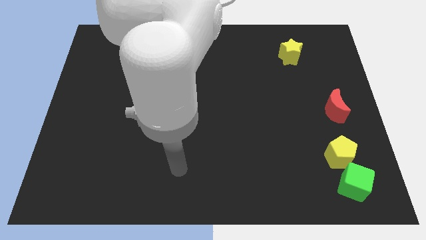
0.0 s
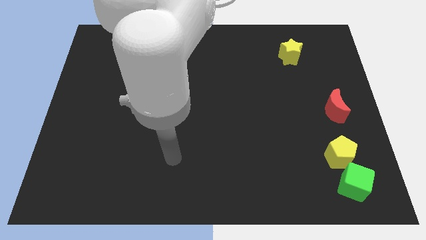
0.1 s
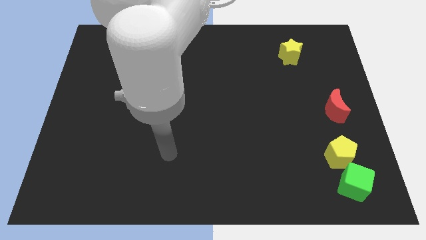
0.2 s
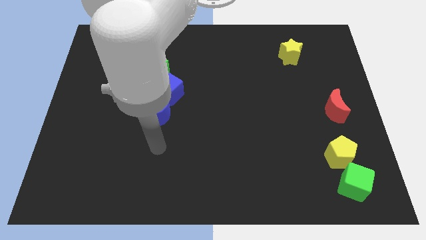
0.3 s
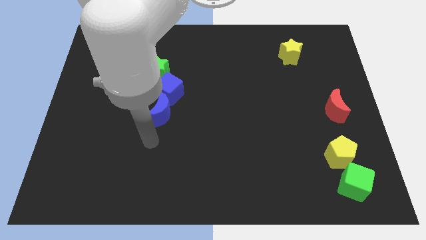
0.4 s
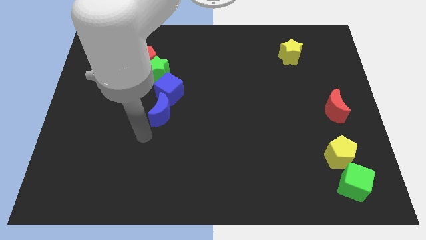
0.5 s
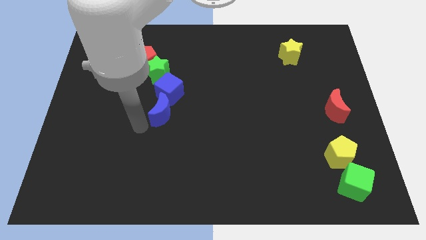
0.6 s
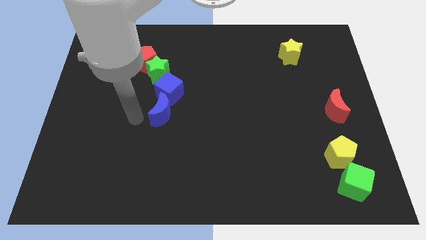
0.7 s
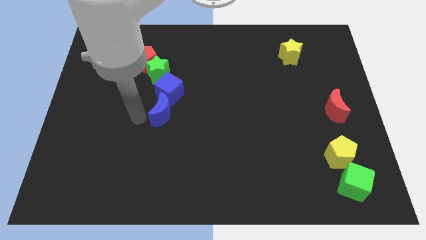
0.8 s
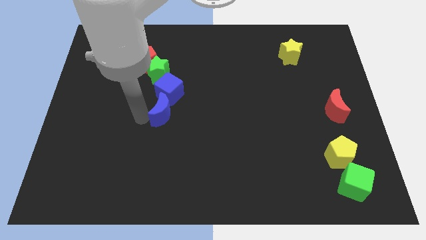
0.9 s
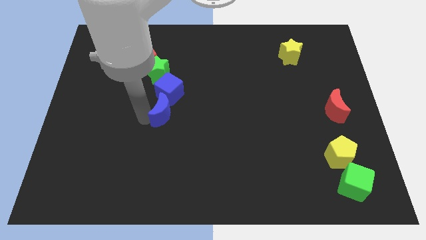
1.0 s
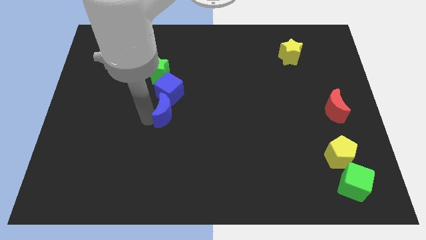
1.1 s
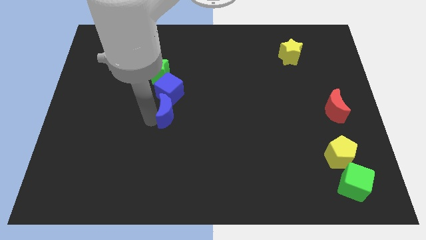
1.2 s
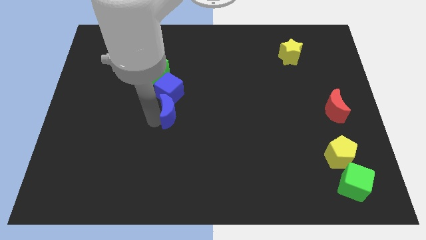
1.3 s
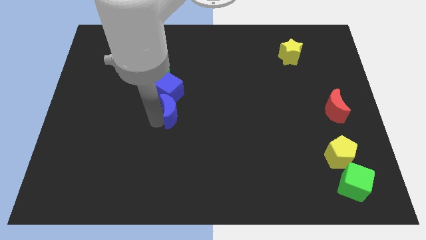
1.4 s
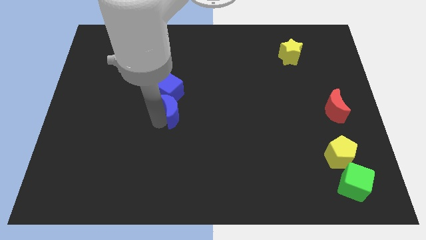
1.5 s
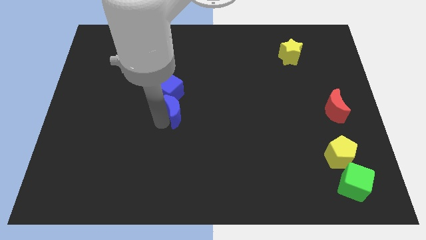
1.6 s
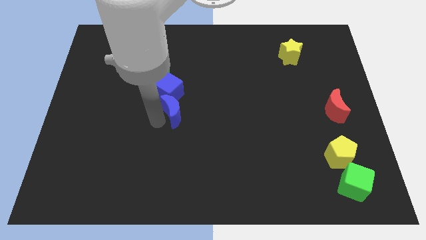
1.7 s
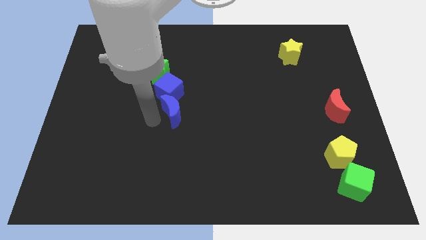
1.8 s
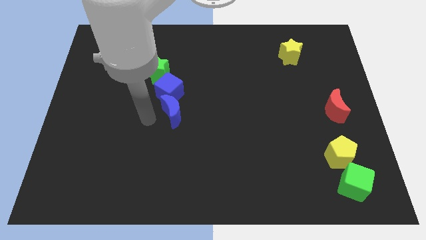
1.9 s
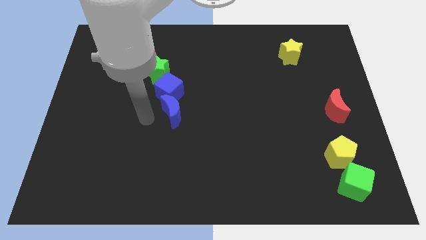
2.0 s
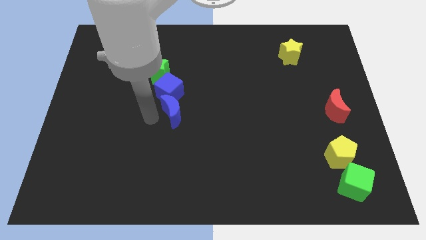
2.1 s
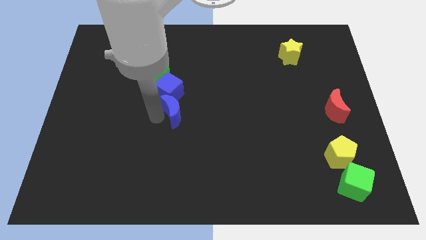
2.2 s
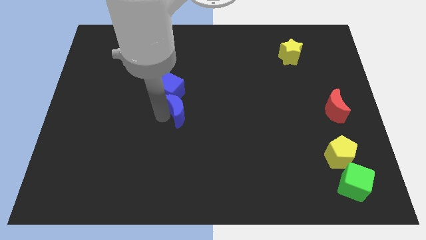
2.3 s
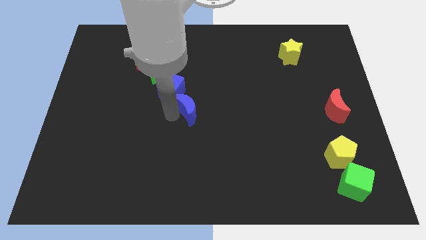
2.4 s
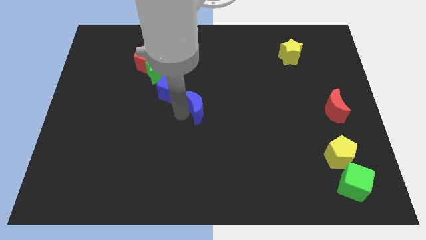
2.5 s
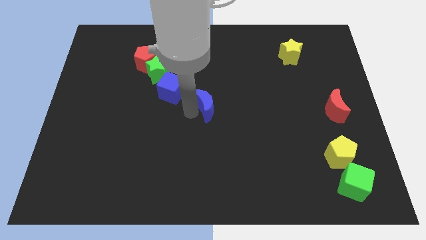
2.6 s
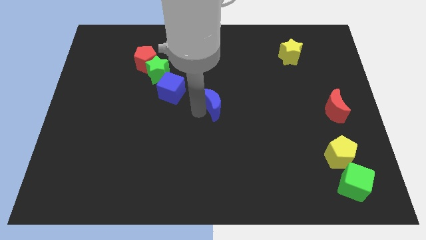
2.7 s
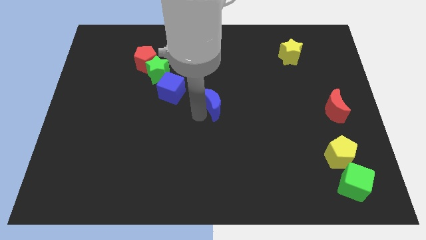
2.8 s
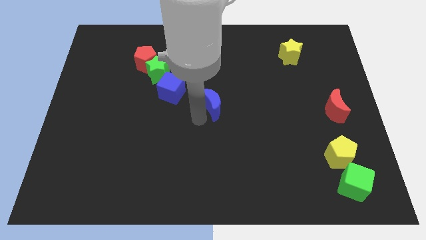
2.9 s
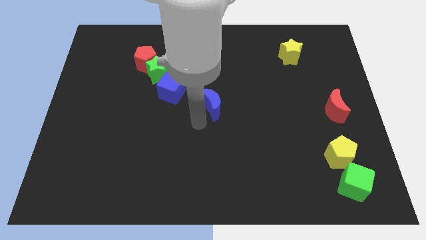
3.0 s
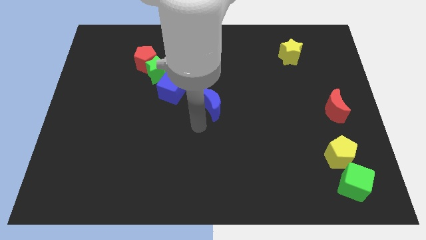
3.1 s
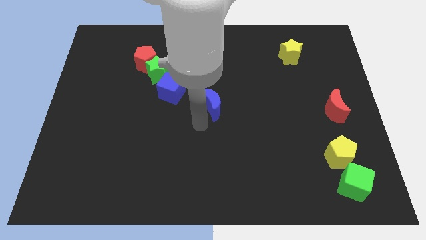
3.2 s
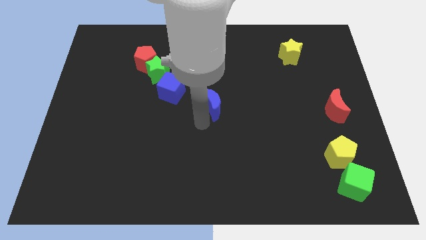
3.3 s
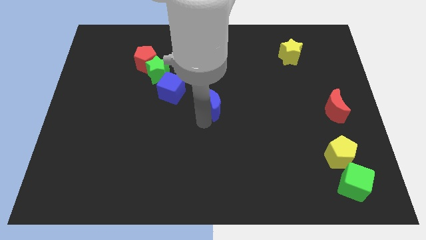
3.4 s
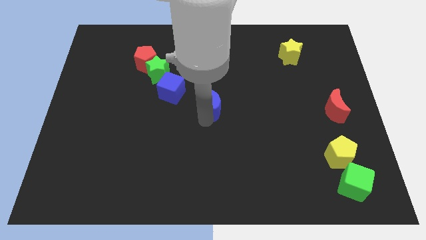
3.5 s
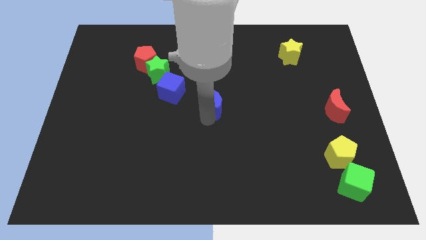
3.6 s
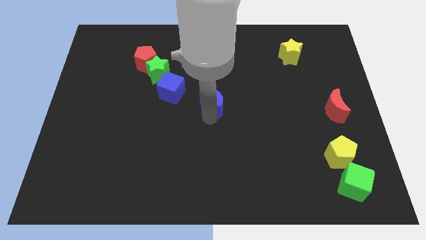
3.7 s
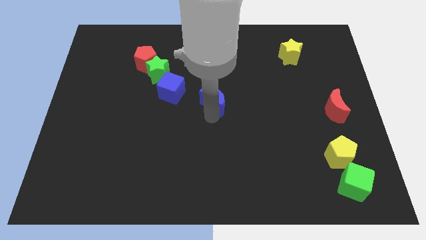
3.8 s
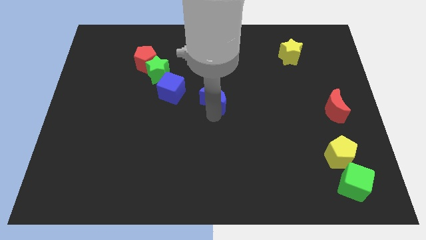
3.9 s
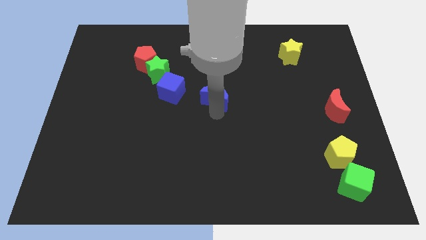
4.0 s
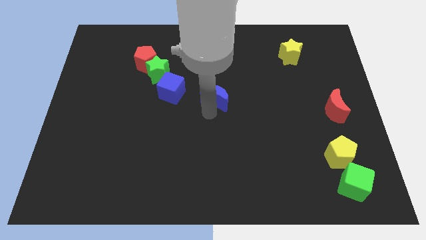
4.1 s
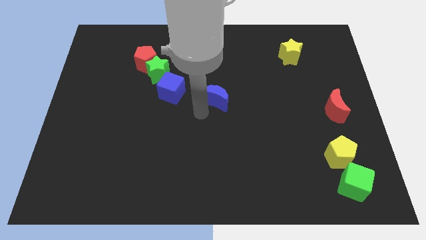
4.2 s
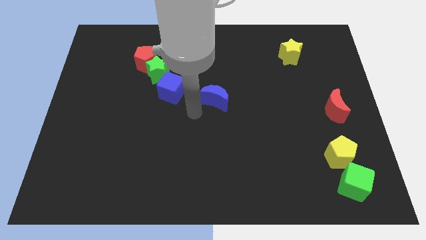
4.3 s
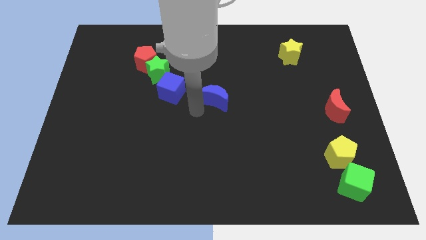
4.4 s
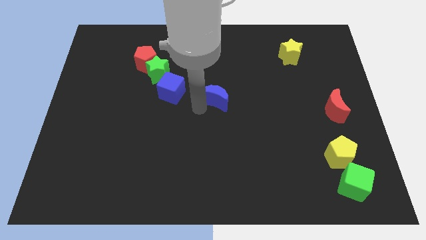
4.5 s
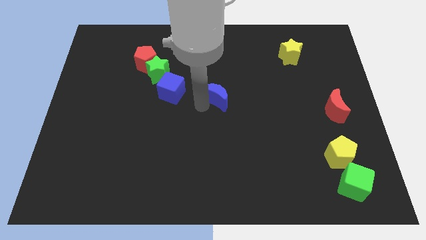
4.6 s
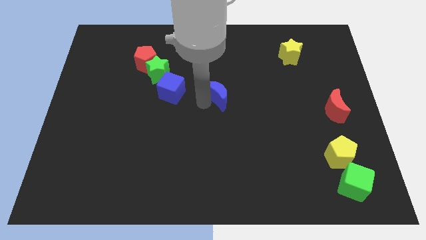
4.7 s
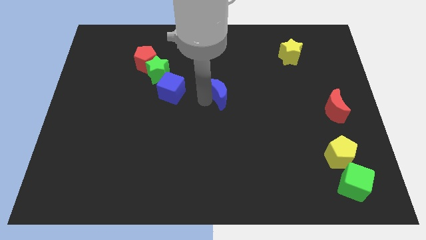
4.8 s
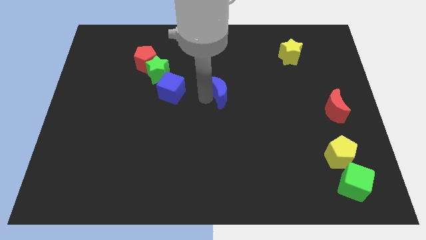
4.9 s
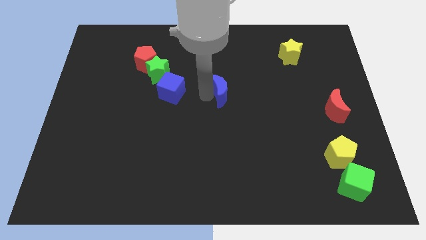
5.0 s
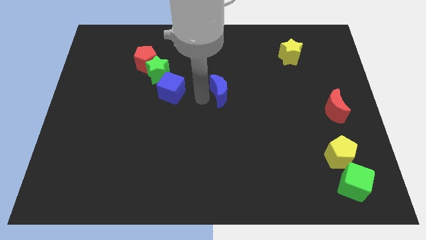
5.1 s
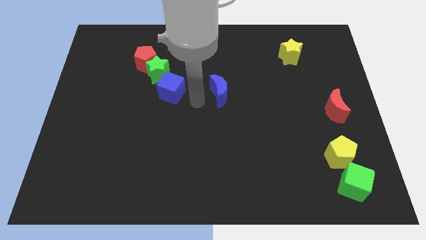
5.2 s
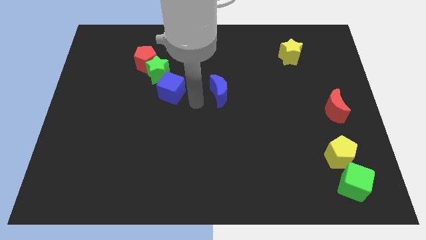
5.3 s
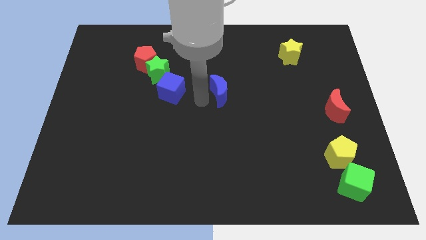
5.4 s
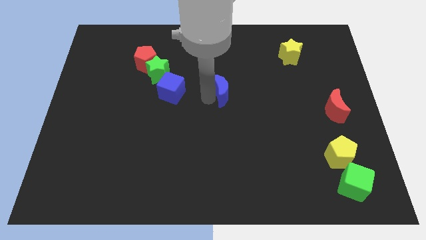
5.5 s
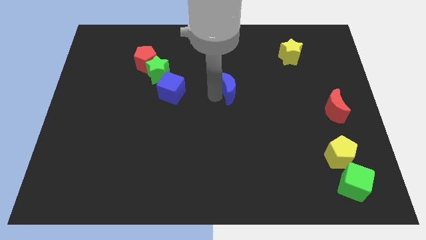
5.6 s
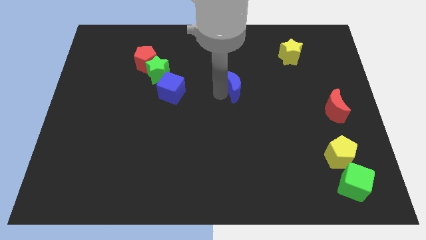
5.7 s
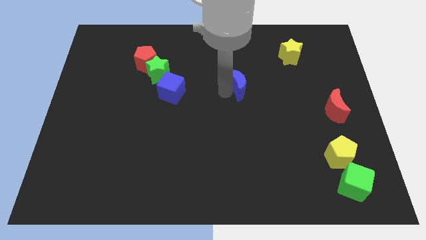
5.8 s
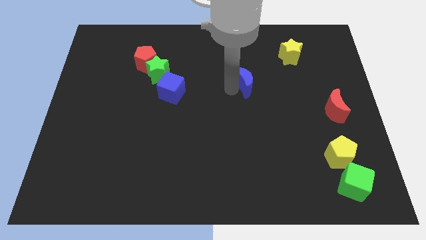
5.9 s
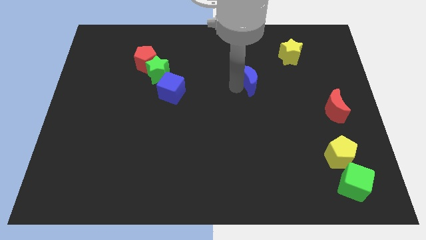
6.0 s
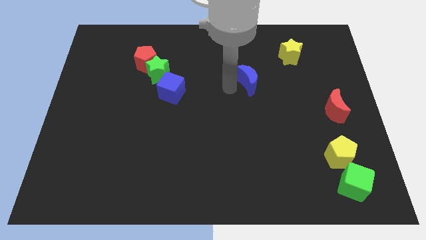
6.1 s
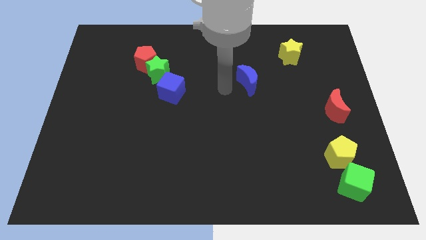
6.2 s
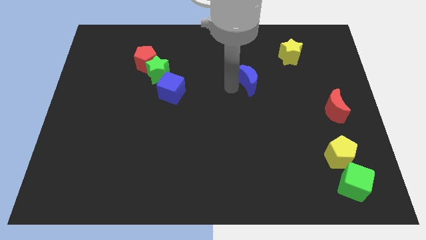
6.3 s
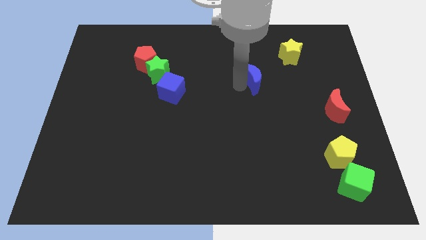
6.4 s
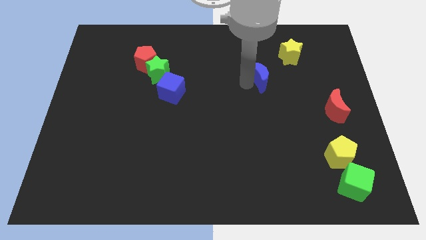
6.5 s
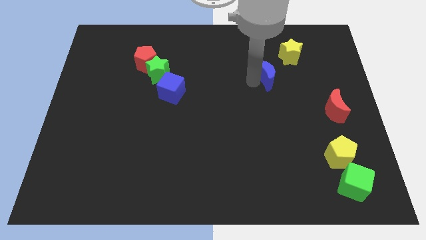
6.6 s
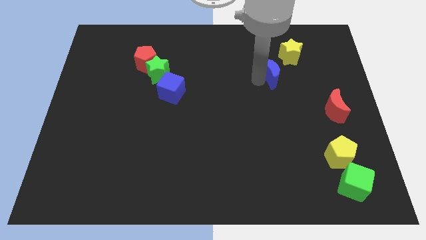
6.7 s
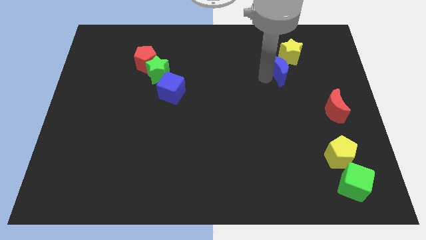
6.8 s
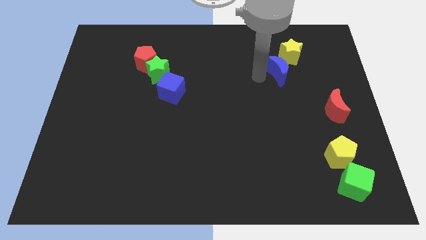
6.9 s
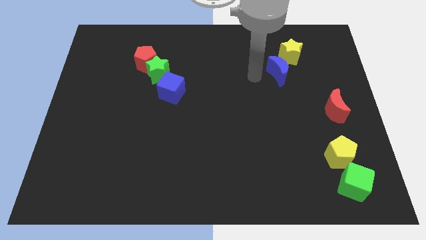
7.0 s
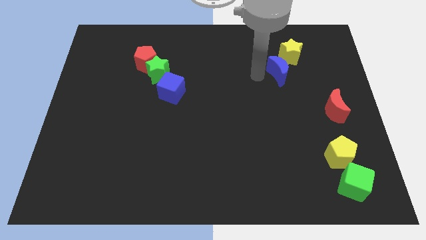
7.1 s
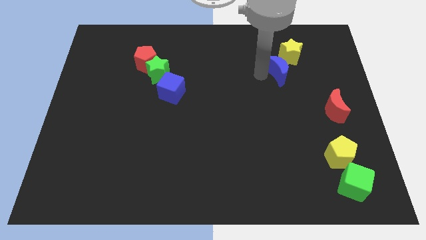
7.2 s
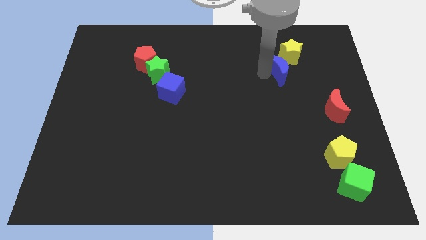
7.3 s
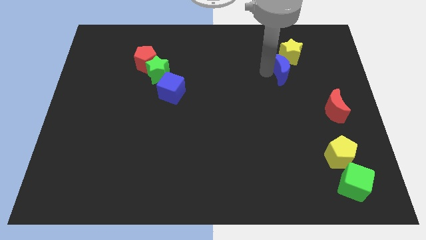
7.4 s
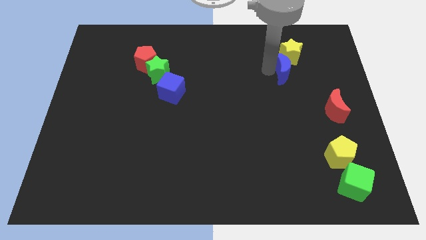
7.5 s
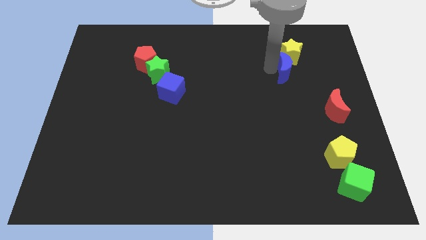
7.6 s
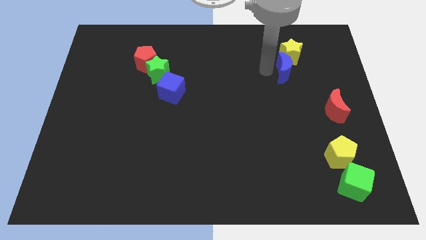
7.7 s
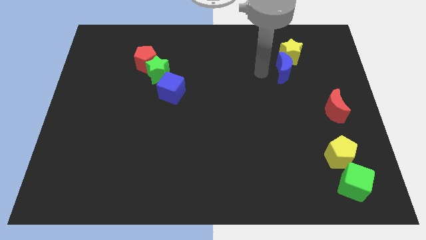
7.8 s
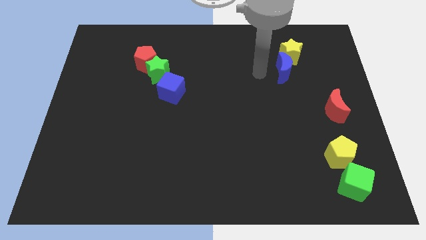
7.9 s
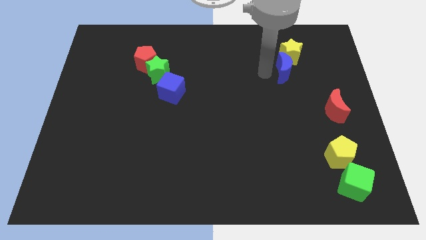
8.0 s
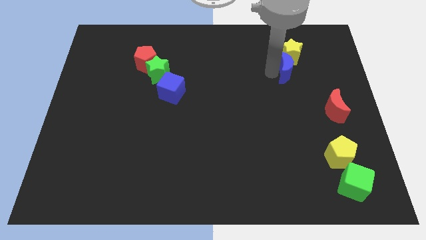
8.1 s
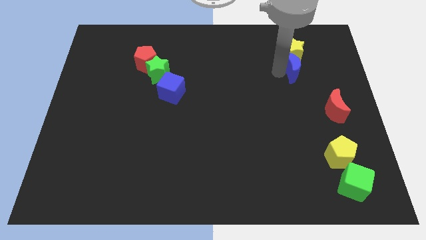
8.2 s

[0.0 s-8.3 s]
put the blue moon diagonally down and to the right of the yellow star
